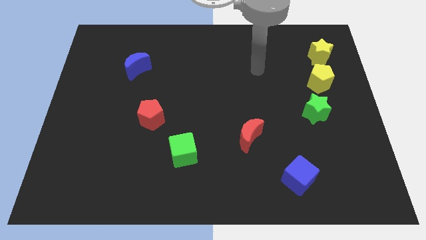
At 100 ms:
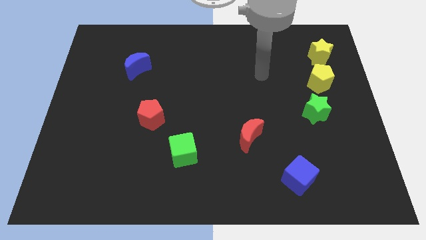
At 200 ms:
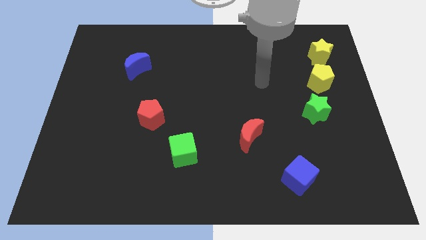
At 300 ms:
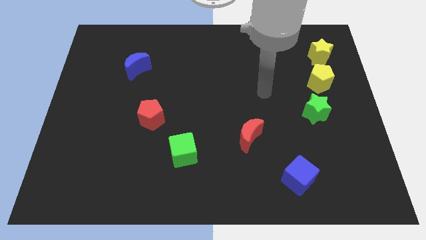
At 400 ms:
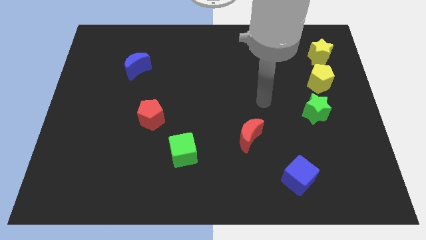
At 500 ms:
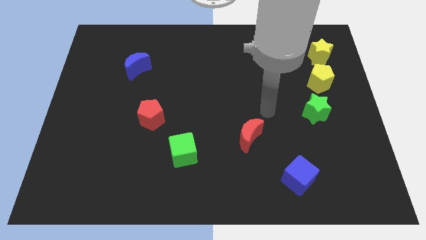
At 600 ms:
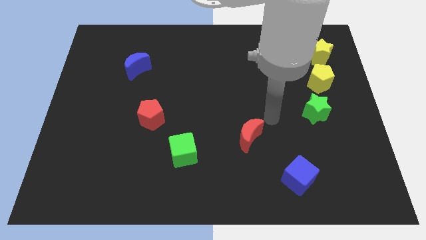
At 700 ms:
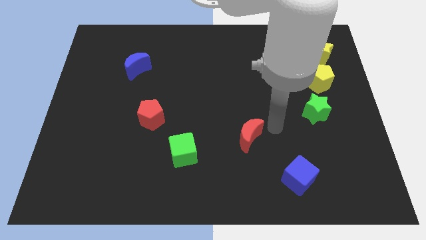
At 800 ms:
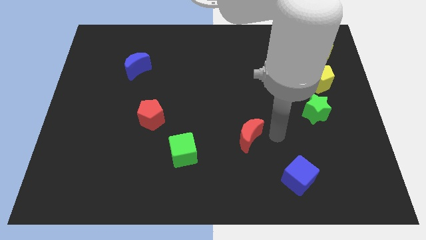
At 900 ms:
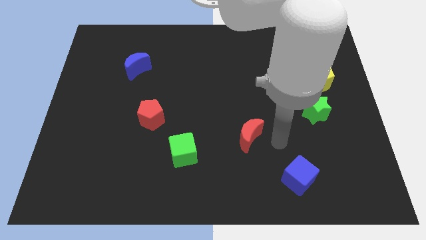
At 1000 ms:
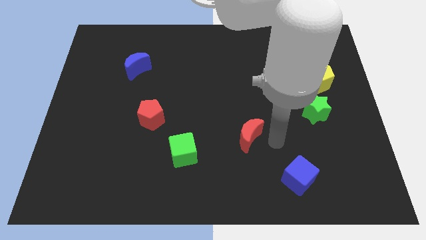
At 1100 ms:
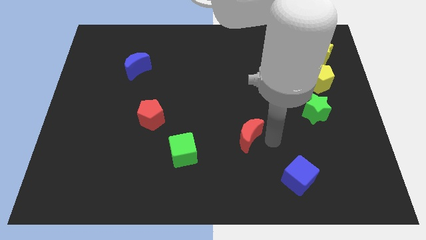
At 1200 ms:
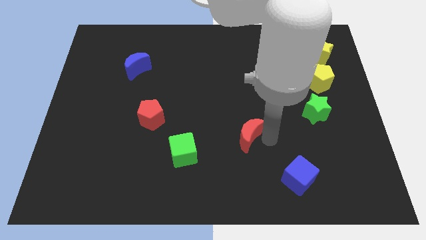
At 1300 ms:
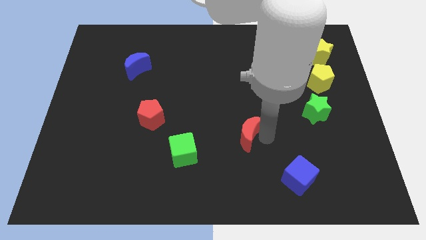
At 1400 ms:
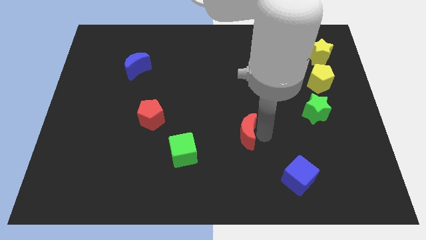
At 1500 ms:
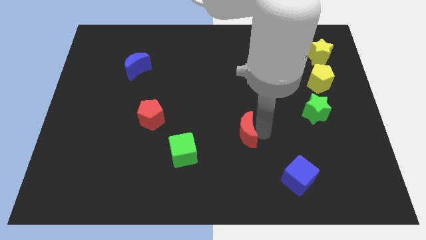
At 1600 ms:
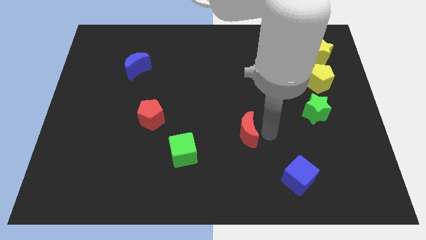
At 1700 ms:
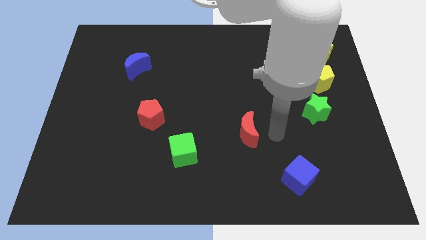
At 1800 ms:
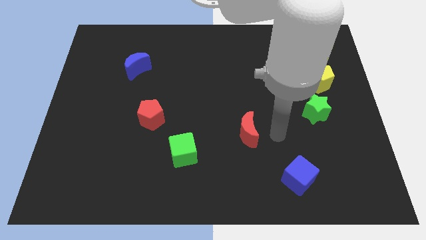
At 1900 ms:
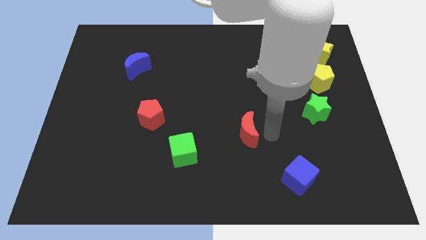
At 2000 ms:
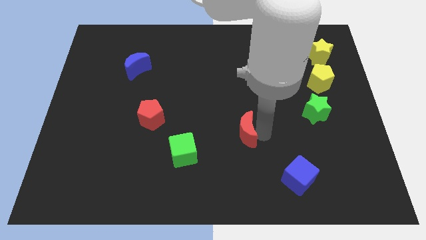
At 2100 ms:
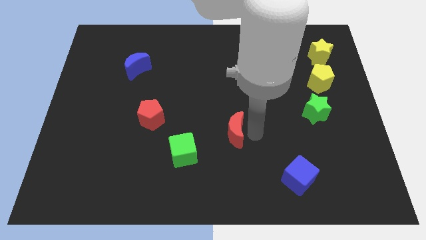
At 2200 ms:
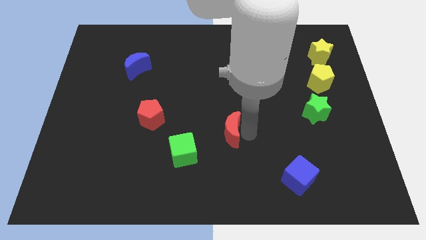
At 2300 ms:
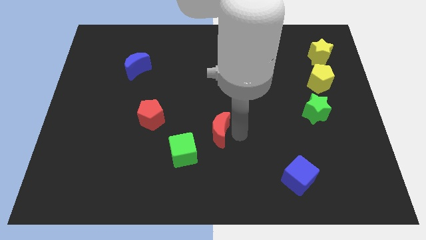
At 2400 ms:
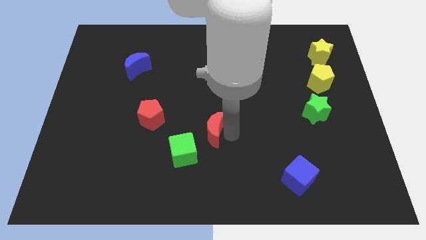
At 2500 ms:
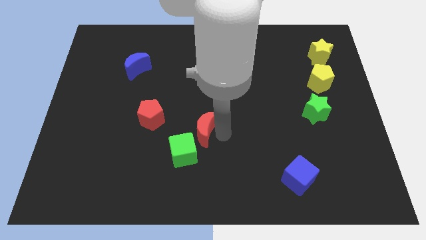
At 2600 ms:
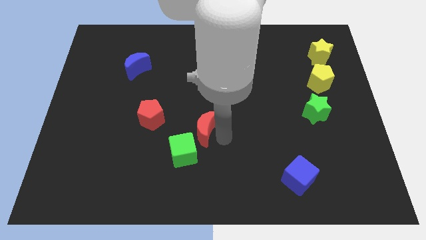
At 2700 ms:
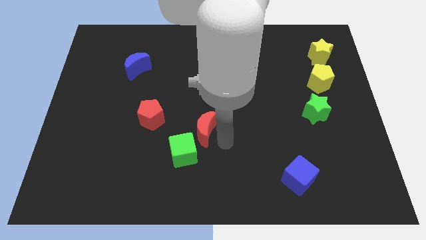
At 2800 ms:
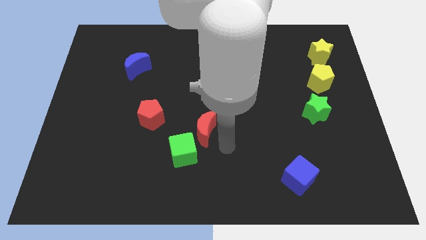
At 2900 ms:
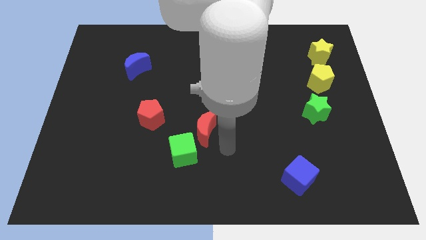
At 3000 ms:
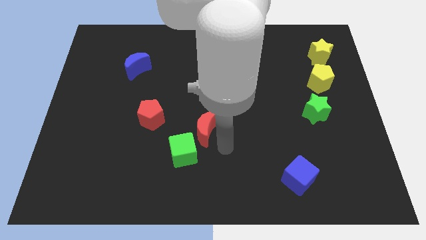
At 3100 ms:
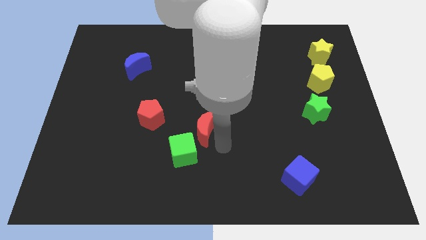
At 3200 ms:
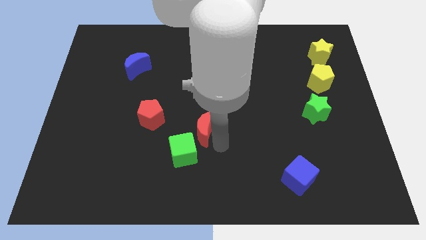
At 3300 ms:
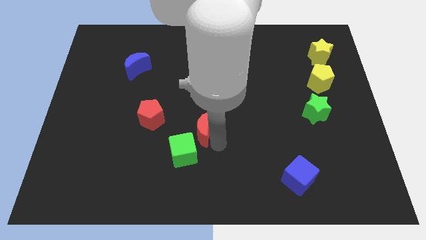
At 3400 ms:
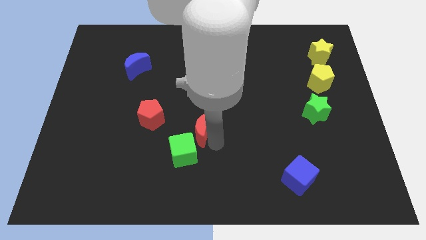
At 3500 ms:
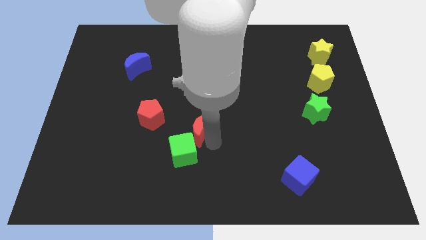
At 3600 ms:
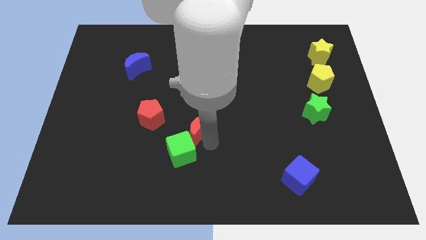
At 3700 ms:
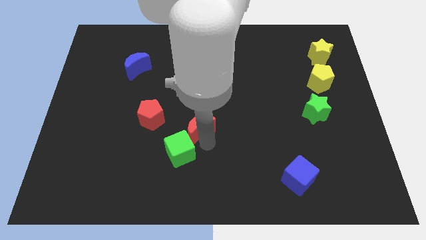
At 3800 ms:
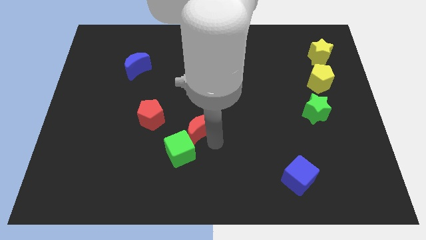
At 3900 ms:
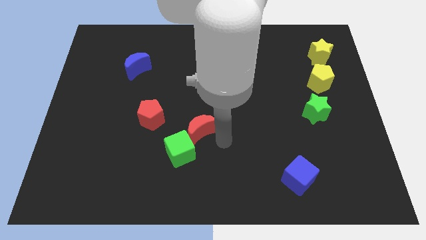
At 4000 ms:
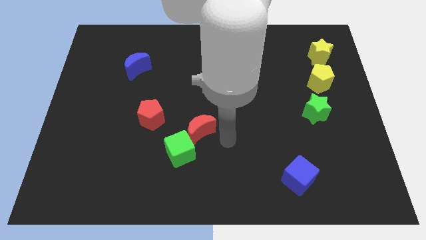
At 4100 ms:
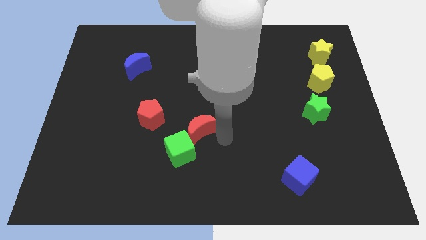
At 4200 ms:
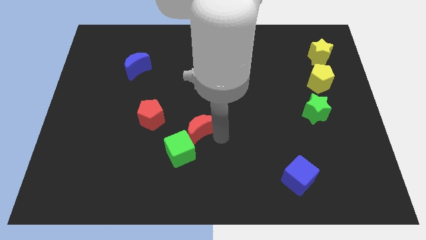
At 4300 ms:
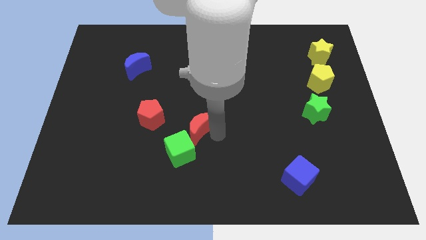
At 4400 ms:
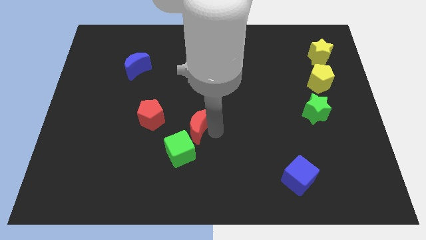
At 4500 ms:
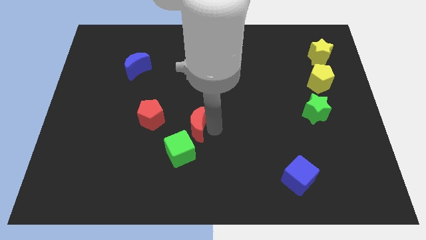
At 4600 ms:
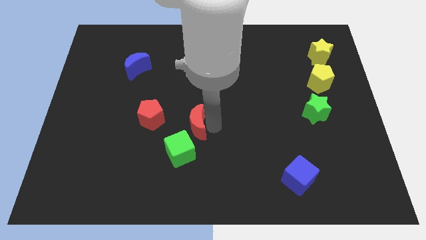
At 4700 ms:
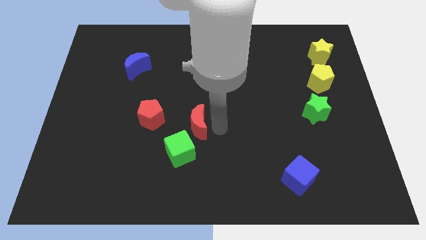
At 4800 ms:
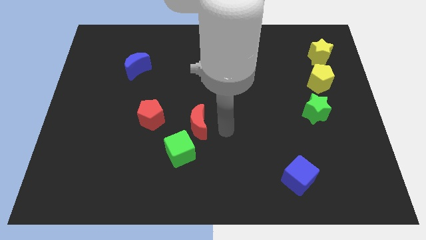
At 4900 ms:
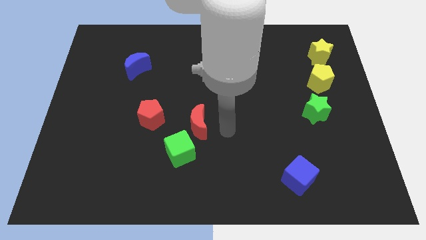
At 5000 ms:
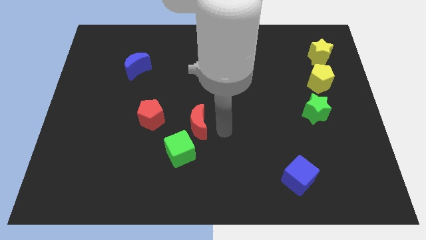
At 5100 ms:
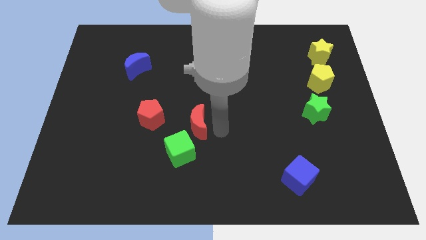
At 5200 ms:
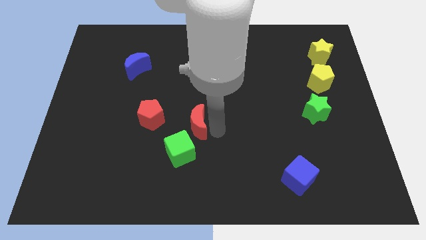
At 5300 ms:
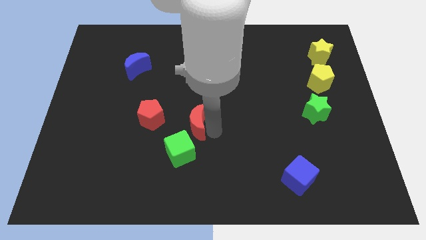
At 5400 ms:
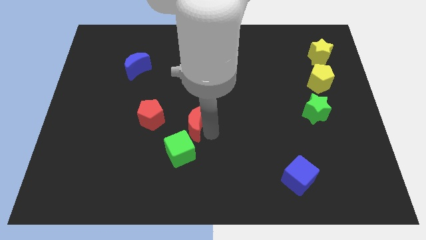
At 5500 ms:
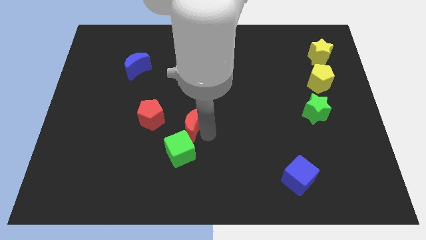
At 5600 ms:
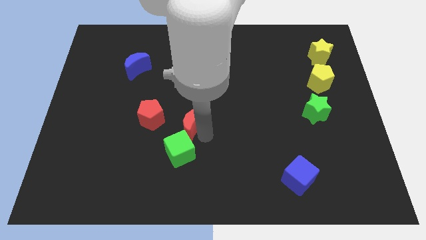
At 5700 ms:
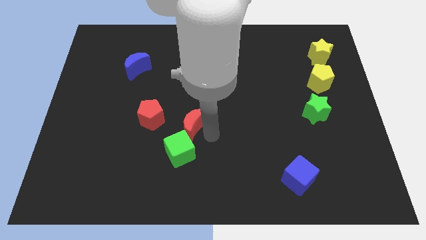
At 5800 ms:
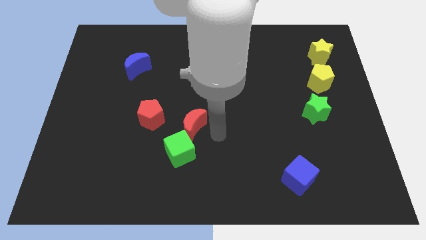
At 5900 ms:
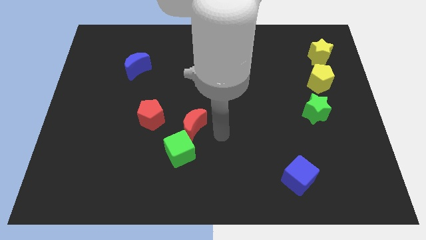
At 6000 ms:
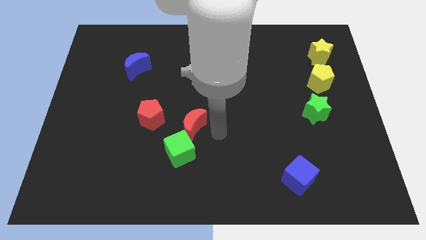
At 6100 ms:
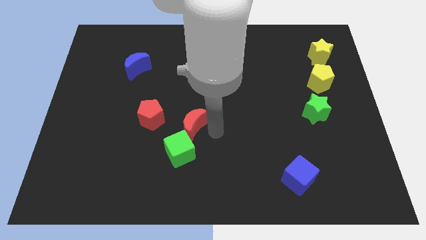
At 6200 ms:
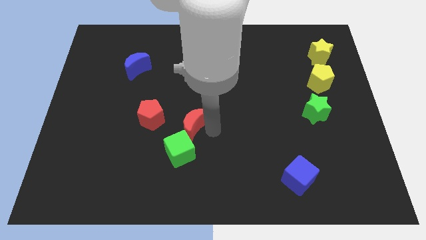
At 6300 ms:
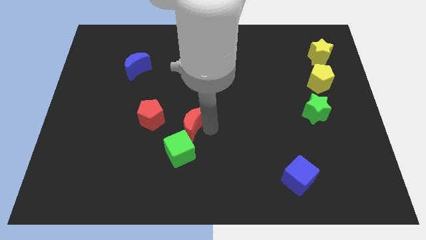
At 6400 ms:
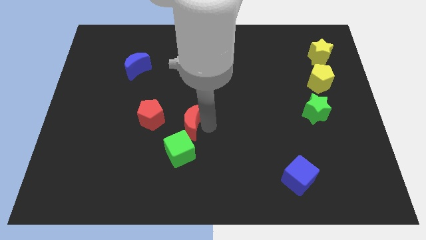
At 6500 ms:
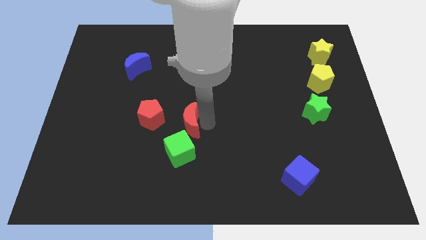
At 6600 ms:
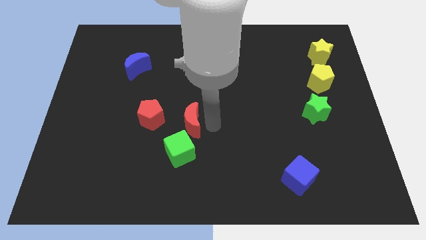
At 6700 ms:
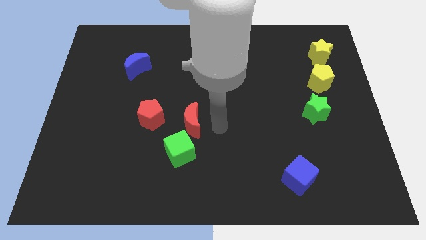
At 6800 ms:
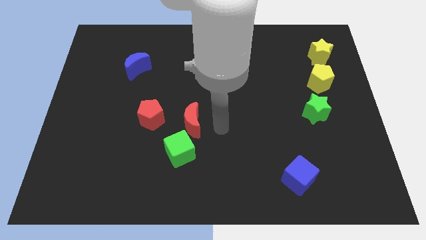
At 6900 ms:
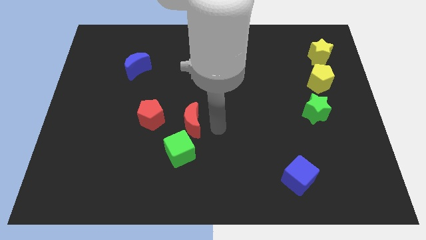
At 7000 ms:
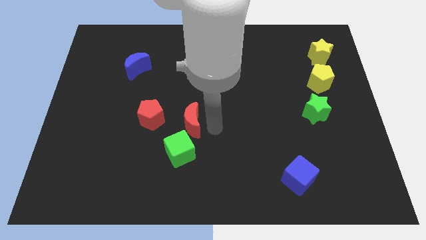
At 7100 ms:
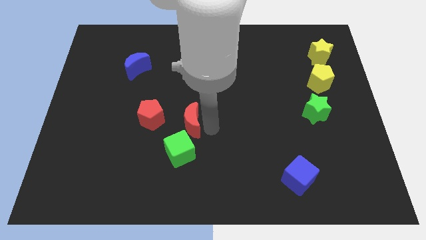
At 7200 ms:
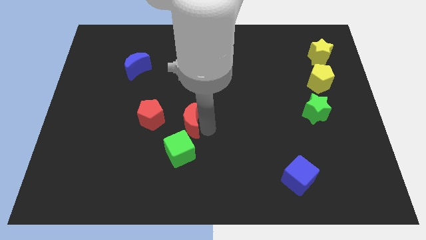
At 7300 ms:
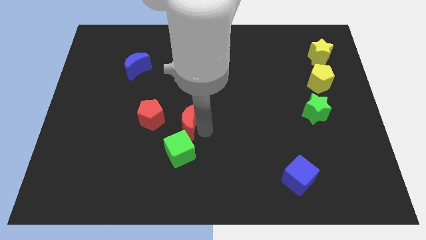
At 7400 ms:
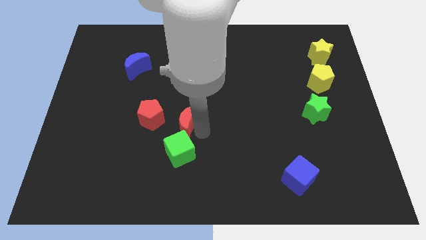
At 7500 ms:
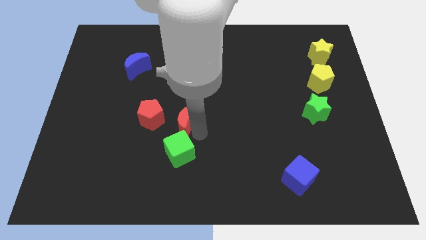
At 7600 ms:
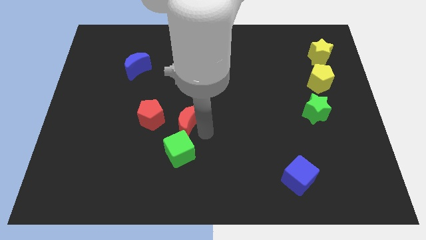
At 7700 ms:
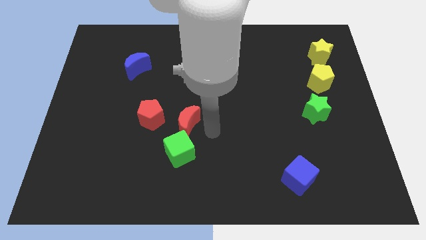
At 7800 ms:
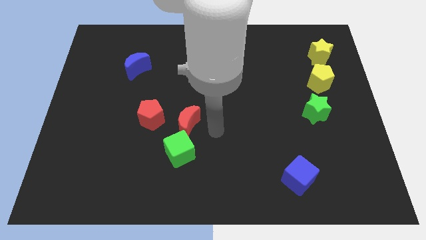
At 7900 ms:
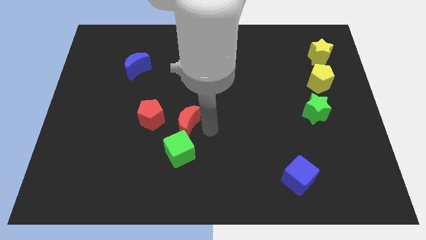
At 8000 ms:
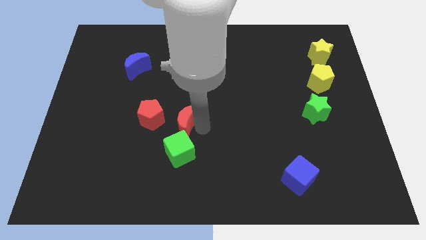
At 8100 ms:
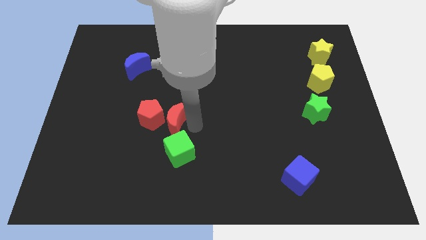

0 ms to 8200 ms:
push the red moon to the red pentagon
